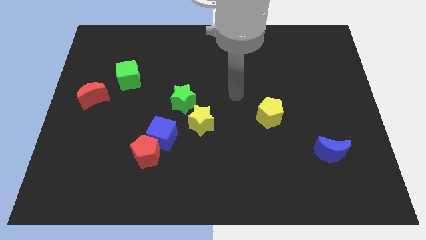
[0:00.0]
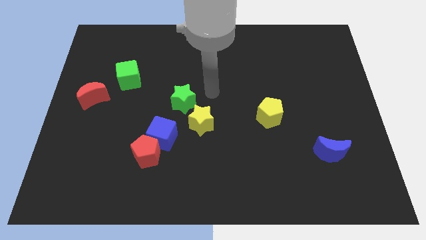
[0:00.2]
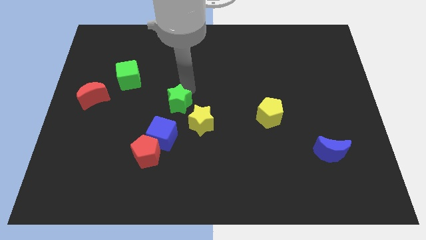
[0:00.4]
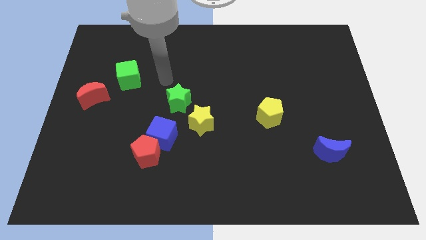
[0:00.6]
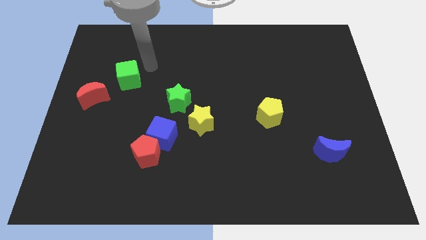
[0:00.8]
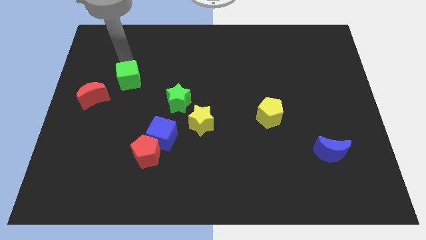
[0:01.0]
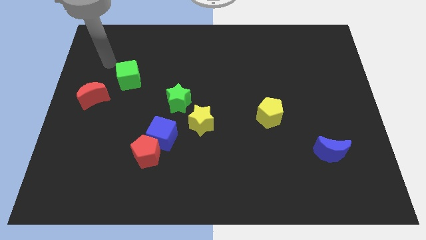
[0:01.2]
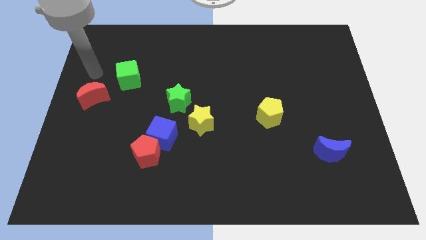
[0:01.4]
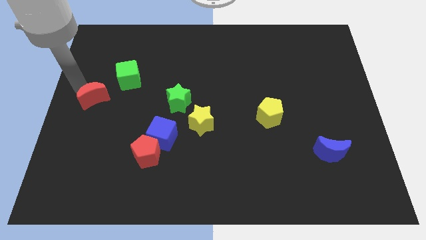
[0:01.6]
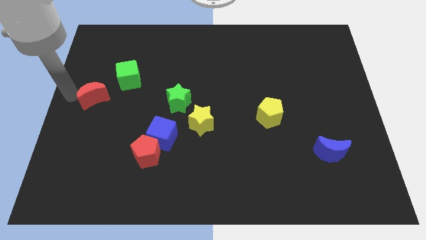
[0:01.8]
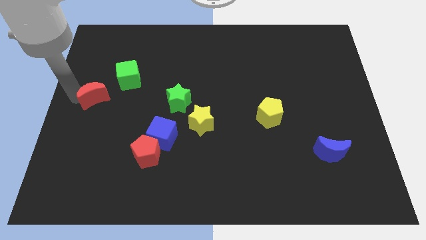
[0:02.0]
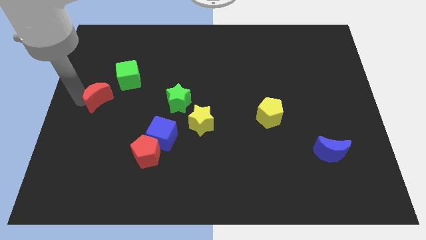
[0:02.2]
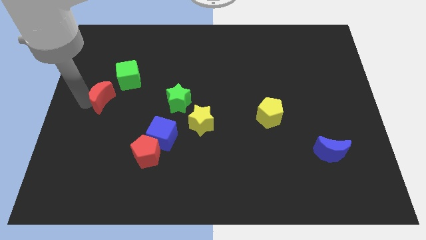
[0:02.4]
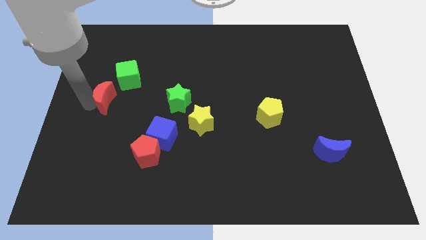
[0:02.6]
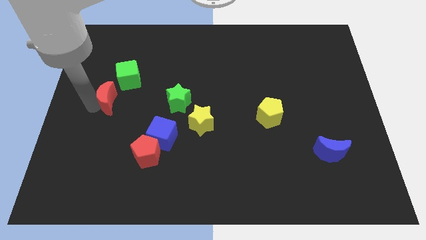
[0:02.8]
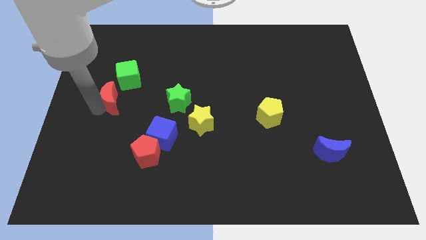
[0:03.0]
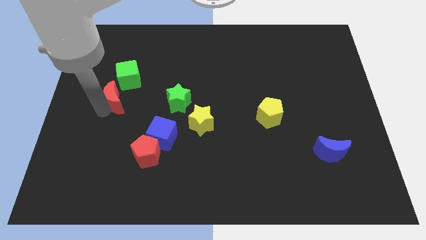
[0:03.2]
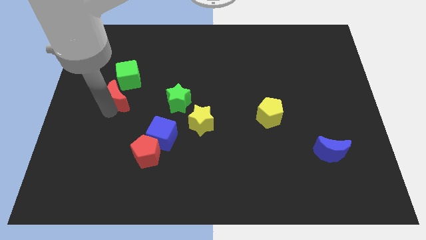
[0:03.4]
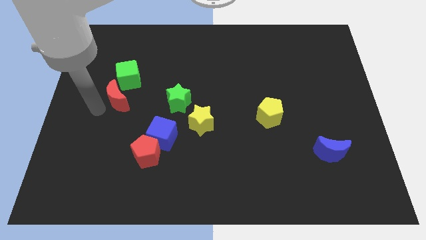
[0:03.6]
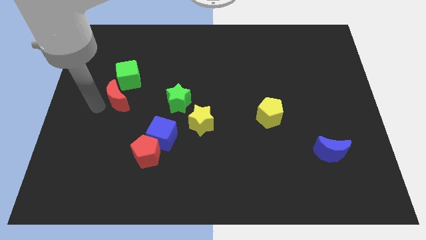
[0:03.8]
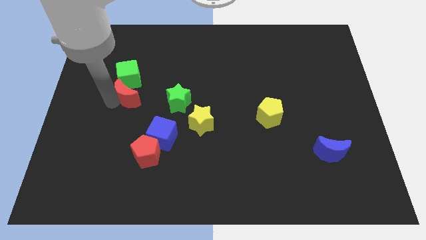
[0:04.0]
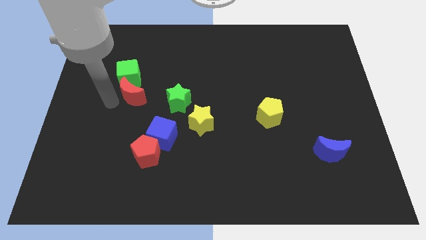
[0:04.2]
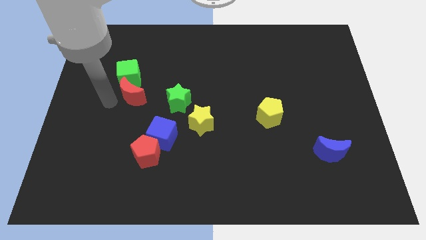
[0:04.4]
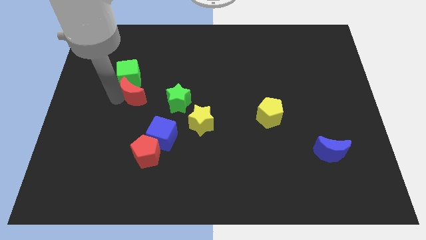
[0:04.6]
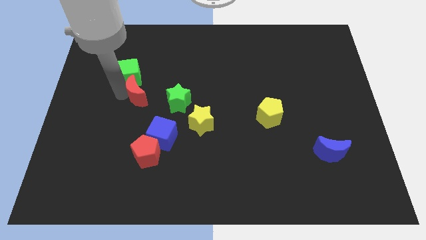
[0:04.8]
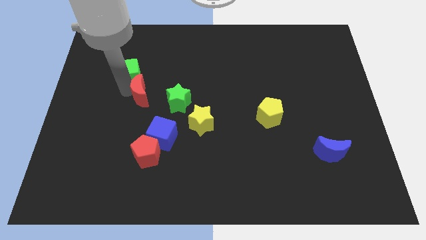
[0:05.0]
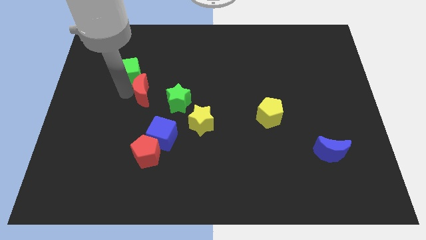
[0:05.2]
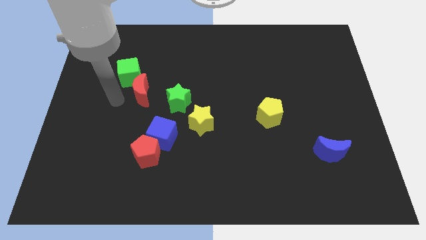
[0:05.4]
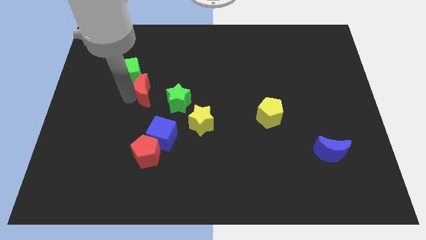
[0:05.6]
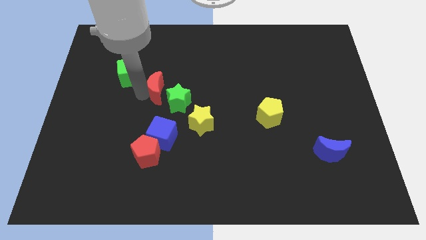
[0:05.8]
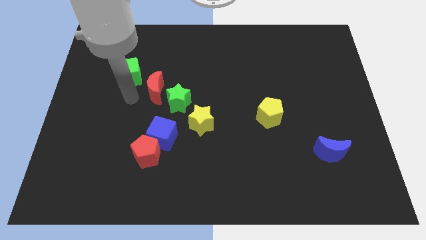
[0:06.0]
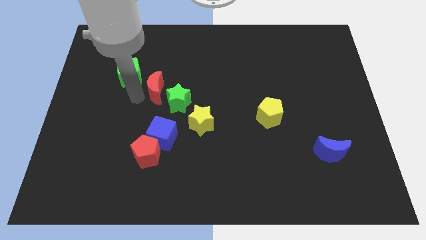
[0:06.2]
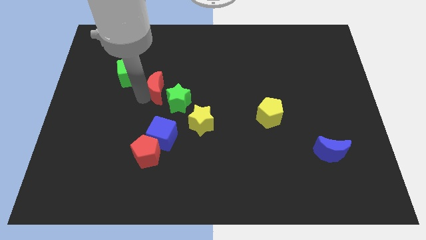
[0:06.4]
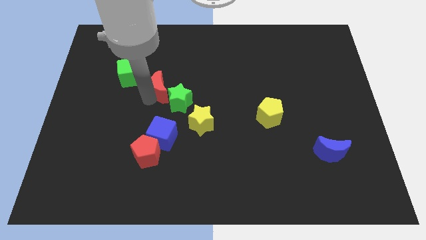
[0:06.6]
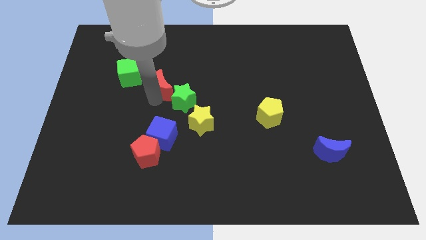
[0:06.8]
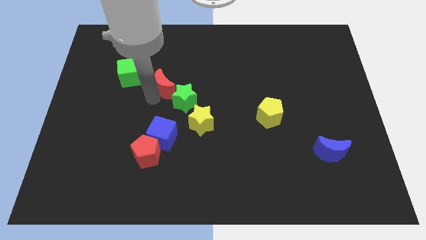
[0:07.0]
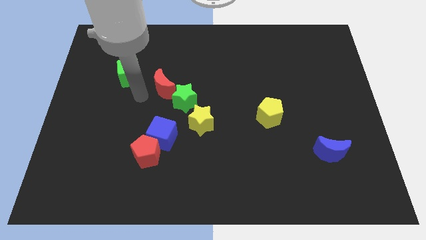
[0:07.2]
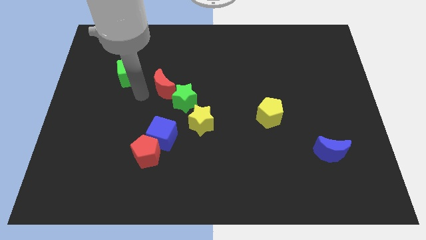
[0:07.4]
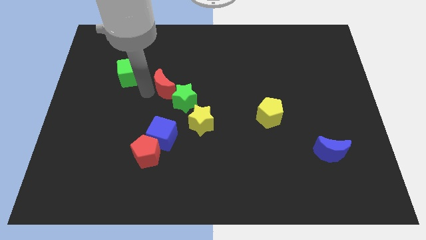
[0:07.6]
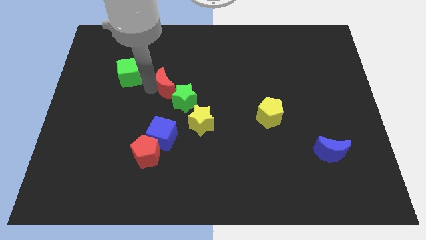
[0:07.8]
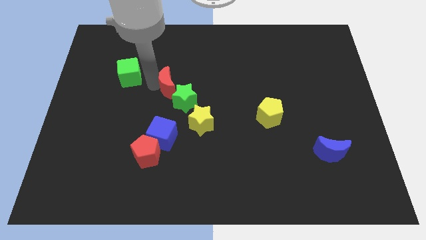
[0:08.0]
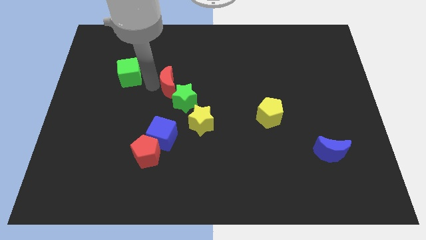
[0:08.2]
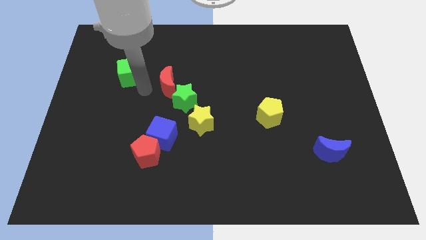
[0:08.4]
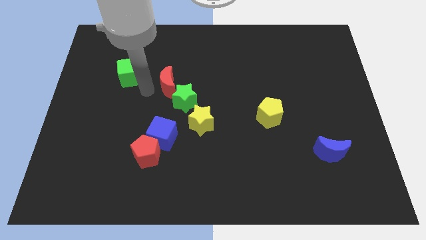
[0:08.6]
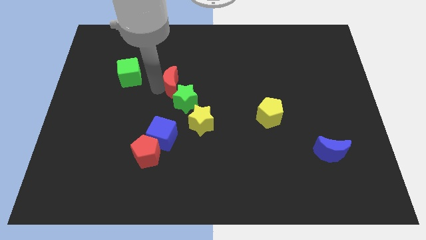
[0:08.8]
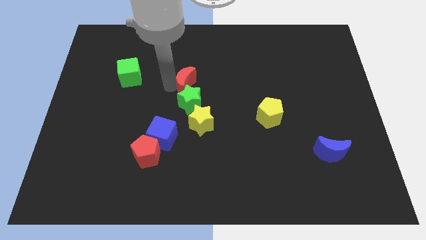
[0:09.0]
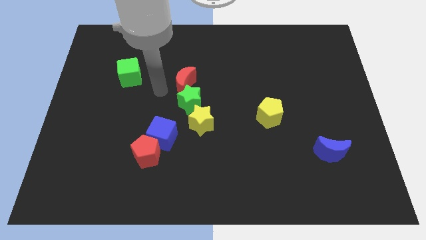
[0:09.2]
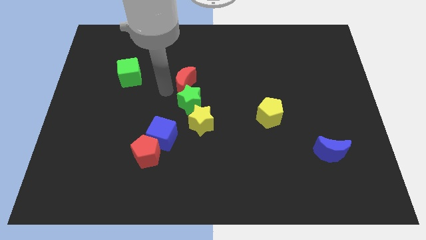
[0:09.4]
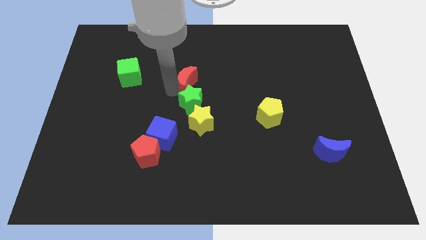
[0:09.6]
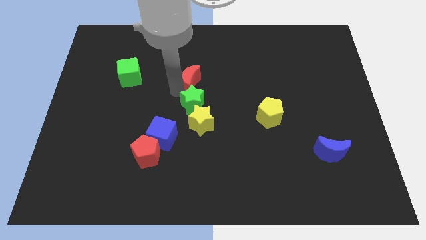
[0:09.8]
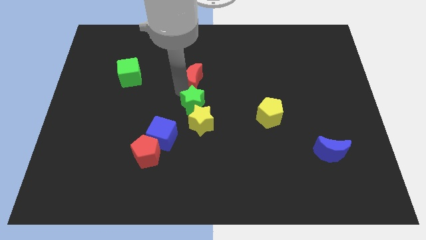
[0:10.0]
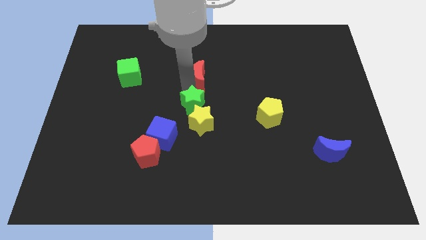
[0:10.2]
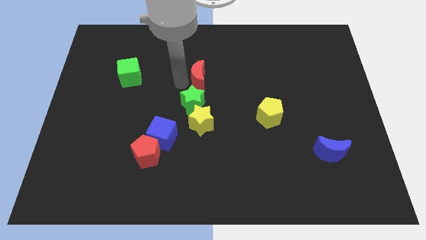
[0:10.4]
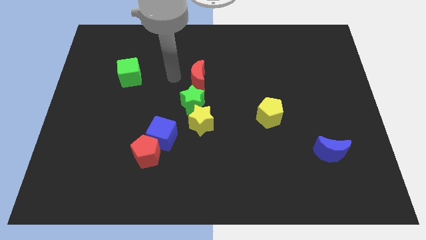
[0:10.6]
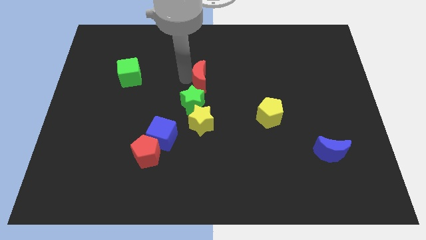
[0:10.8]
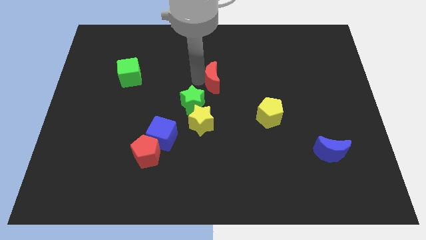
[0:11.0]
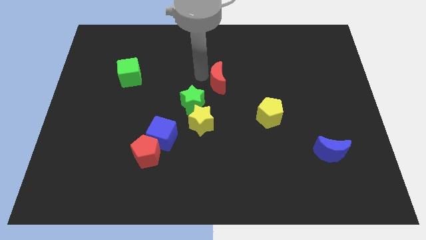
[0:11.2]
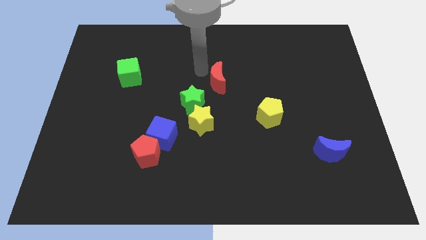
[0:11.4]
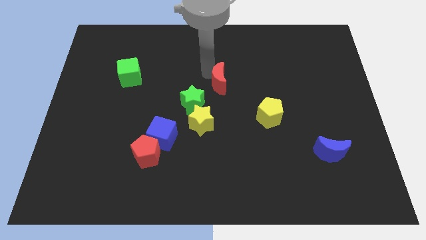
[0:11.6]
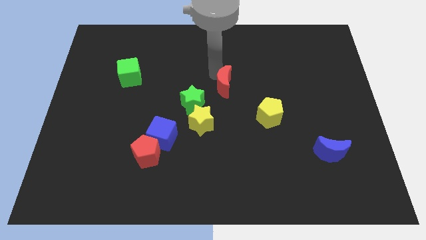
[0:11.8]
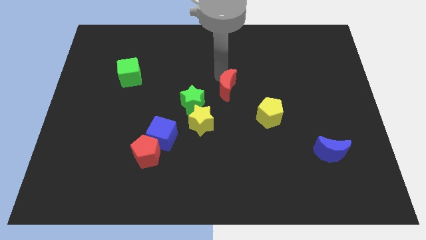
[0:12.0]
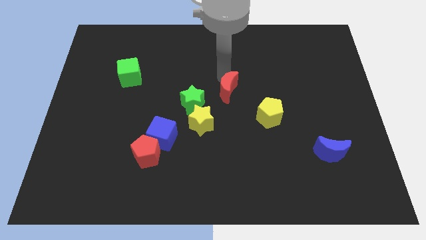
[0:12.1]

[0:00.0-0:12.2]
push the red moon to the top left side of the yellow pentagon

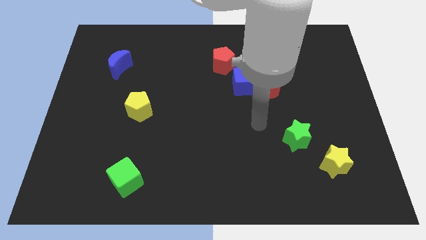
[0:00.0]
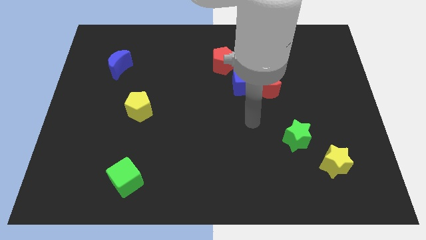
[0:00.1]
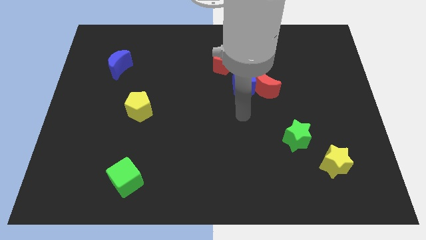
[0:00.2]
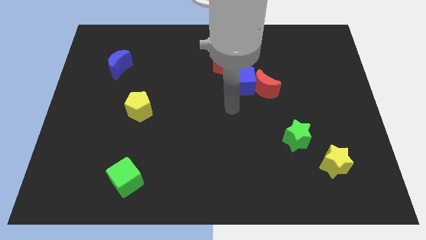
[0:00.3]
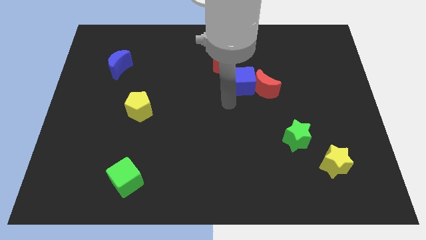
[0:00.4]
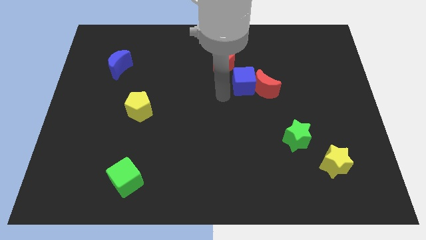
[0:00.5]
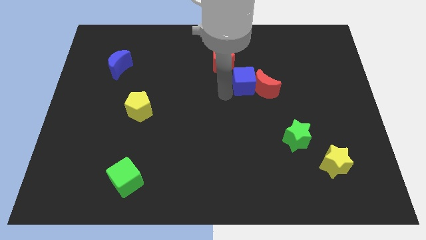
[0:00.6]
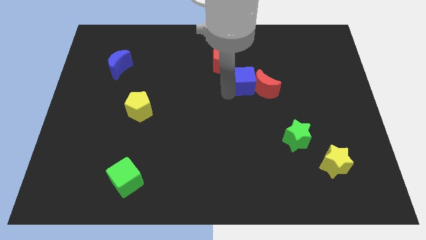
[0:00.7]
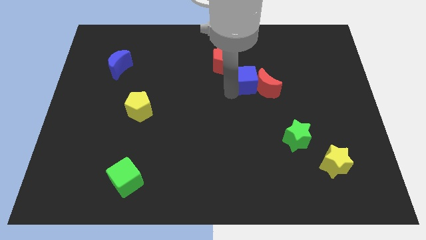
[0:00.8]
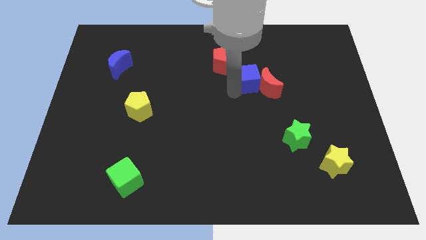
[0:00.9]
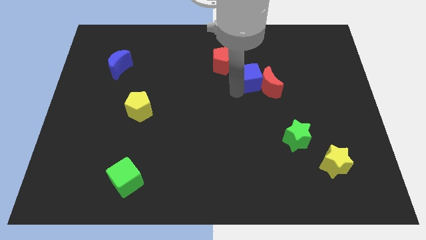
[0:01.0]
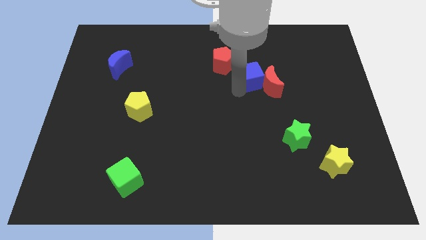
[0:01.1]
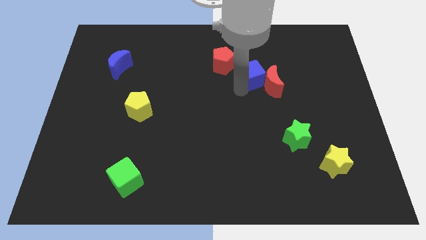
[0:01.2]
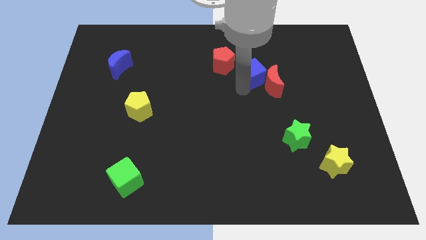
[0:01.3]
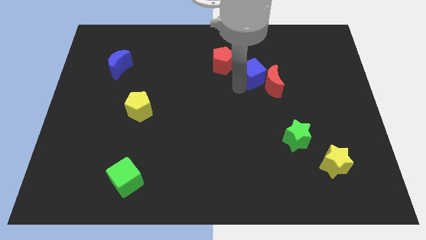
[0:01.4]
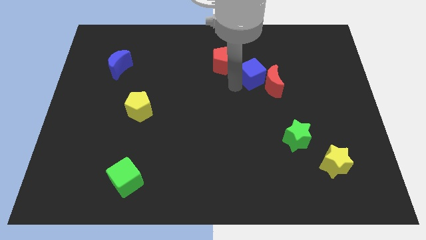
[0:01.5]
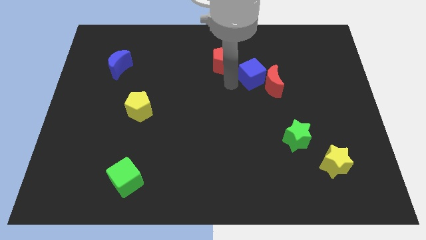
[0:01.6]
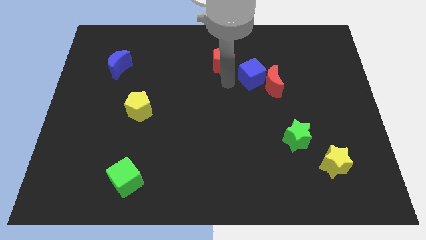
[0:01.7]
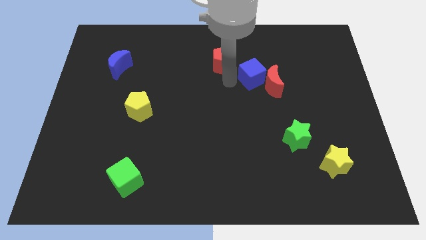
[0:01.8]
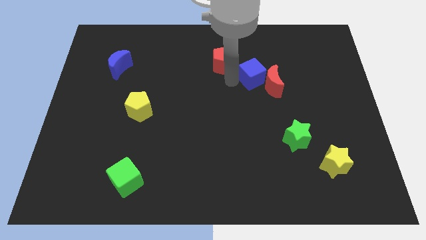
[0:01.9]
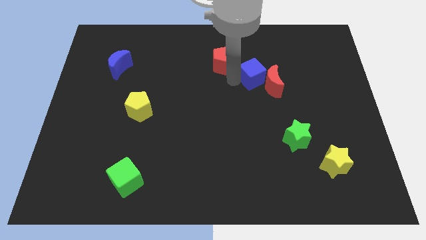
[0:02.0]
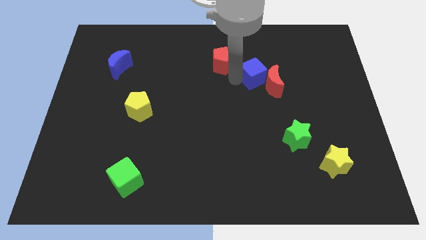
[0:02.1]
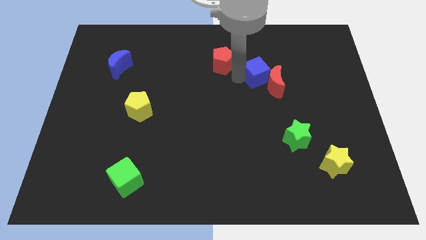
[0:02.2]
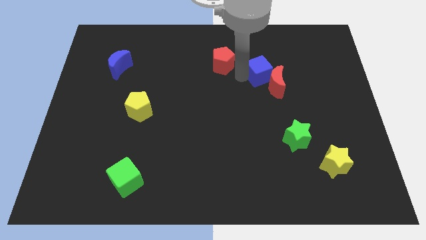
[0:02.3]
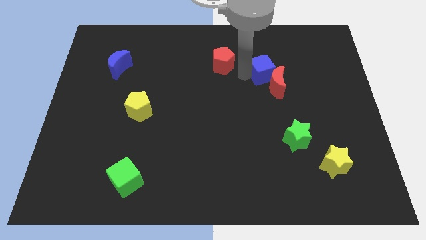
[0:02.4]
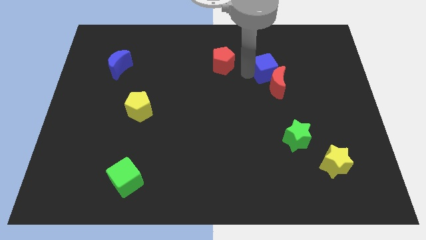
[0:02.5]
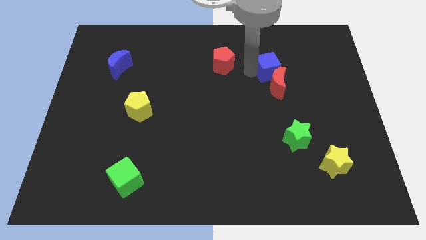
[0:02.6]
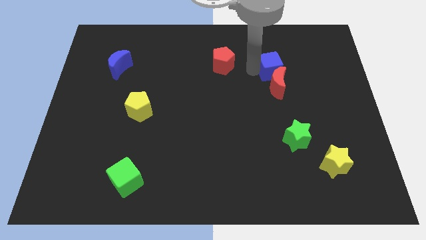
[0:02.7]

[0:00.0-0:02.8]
move the blue cube to the top right side of the red moon
